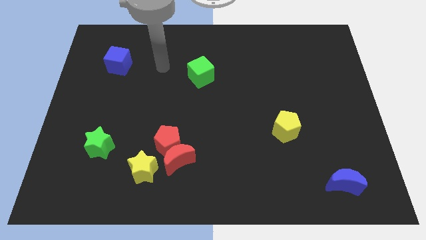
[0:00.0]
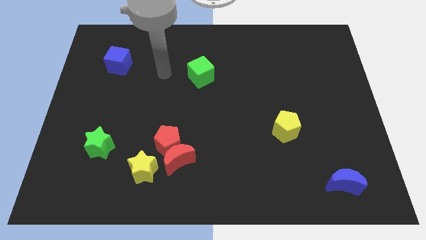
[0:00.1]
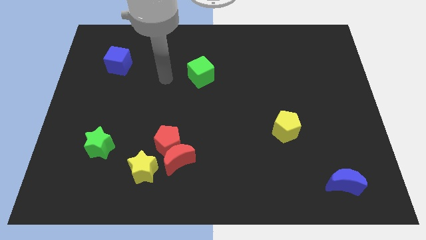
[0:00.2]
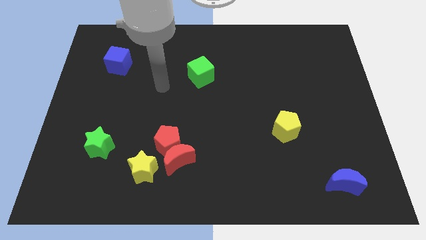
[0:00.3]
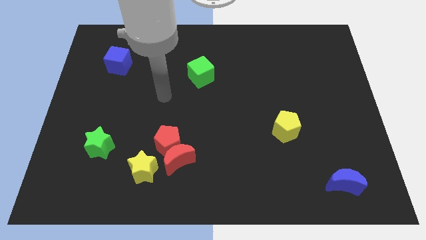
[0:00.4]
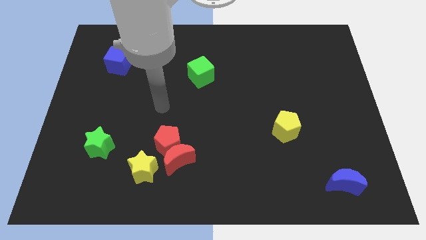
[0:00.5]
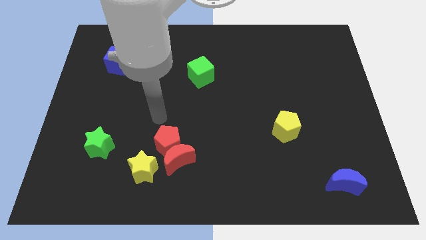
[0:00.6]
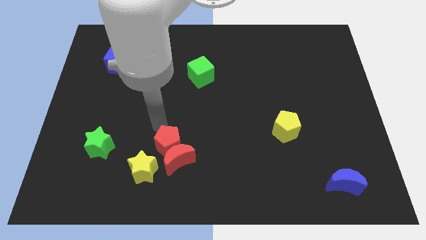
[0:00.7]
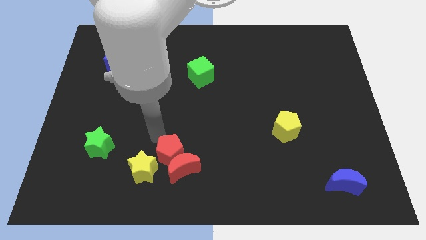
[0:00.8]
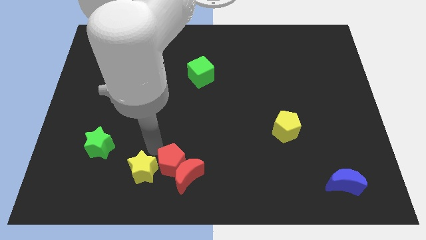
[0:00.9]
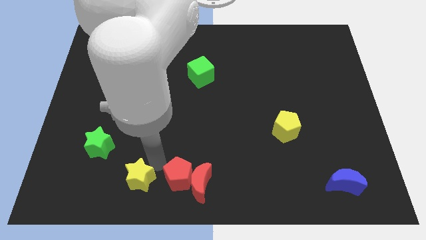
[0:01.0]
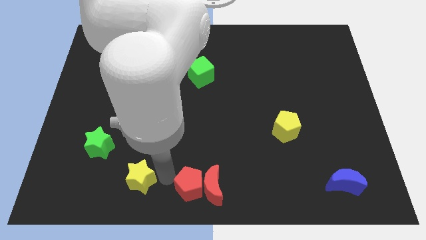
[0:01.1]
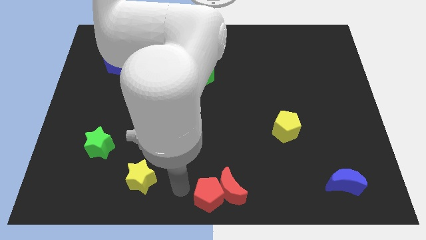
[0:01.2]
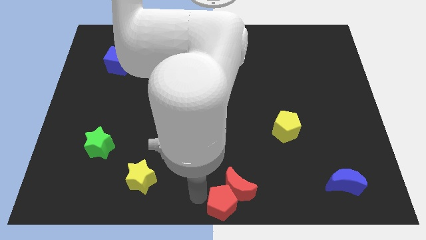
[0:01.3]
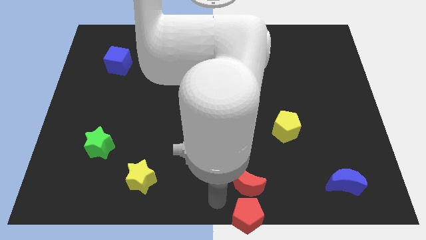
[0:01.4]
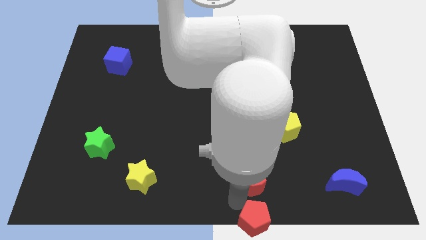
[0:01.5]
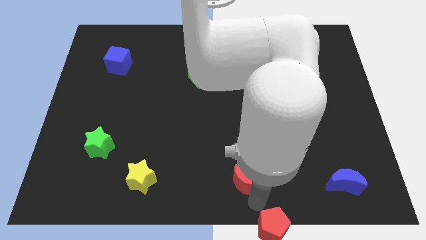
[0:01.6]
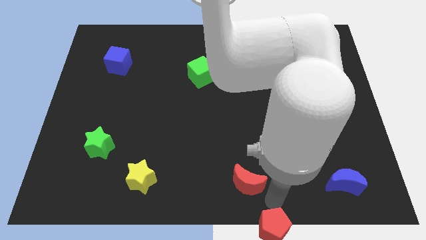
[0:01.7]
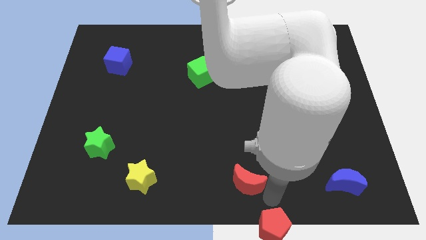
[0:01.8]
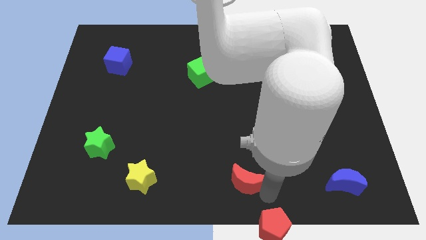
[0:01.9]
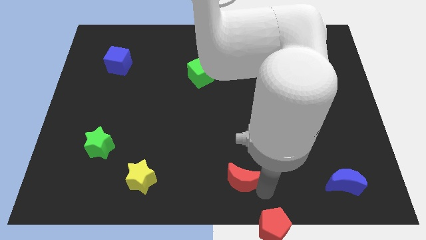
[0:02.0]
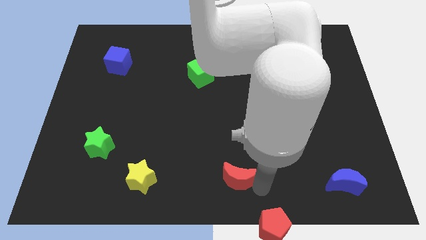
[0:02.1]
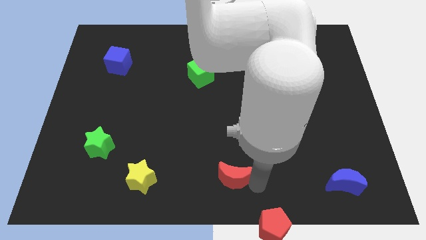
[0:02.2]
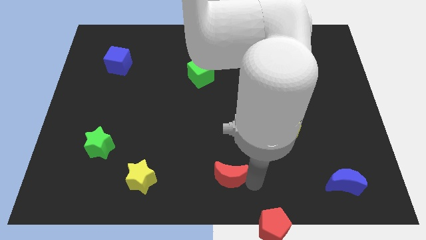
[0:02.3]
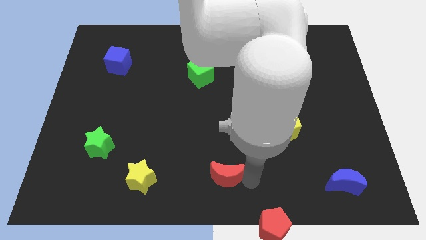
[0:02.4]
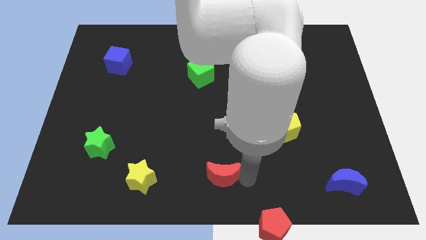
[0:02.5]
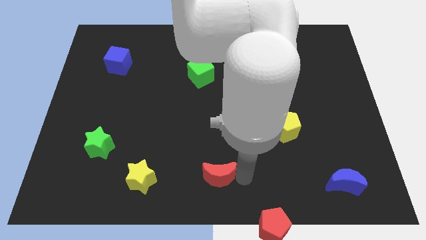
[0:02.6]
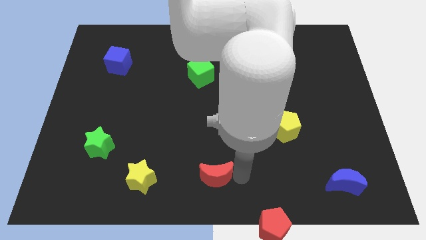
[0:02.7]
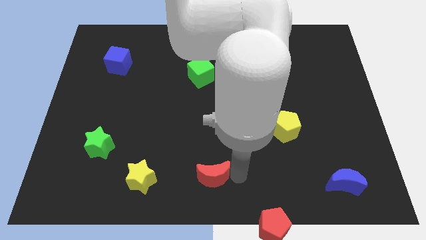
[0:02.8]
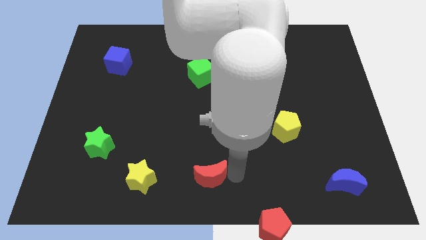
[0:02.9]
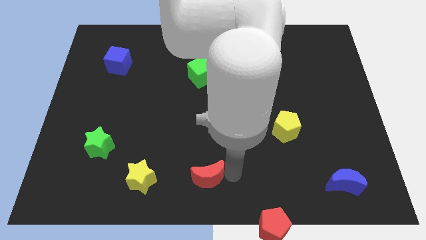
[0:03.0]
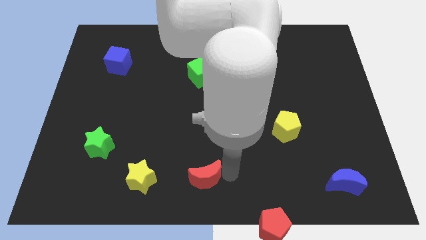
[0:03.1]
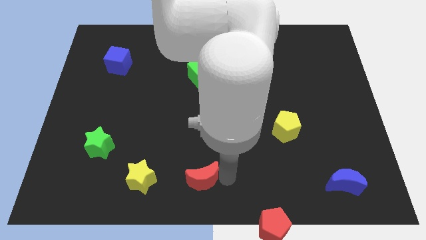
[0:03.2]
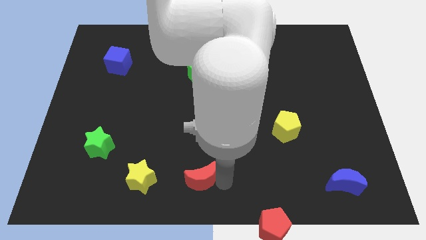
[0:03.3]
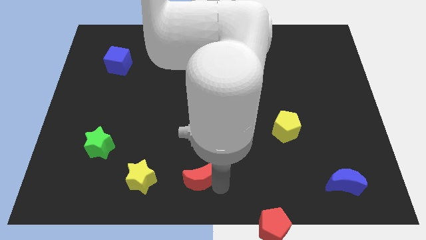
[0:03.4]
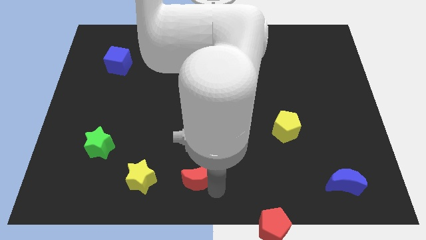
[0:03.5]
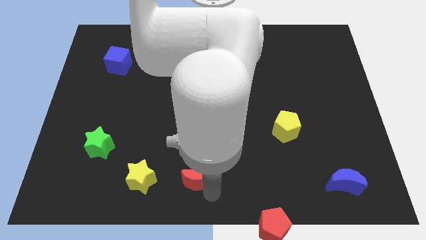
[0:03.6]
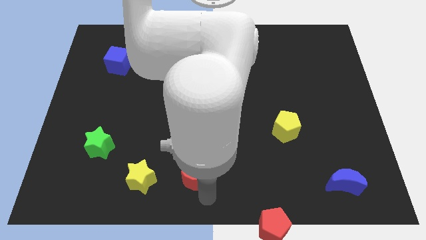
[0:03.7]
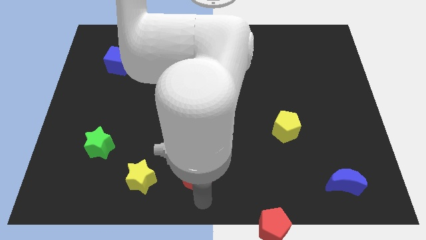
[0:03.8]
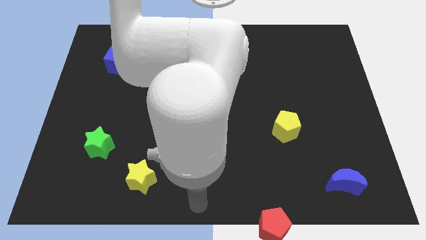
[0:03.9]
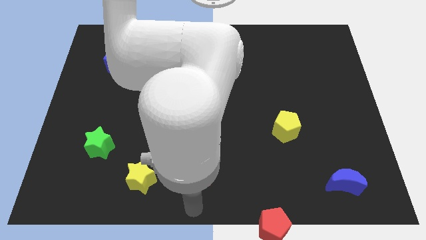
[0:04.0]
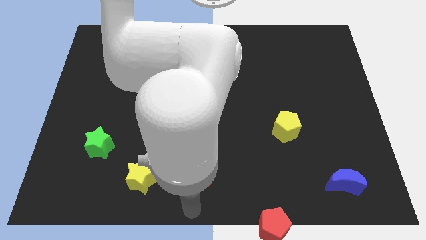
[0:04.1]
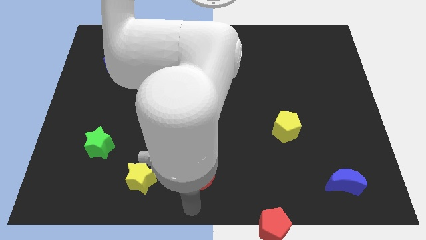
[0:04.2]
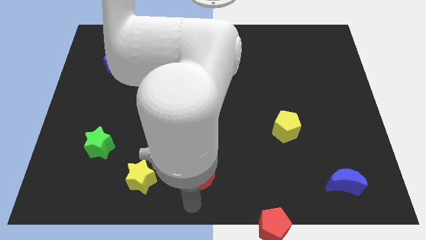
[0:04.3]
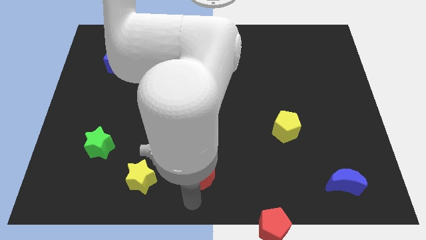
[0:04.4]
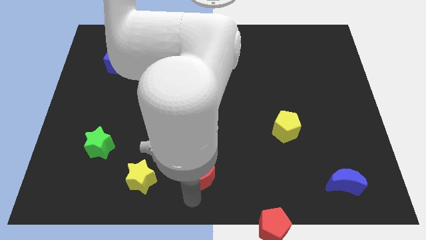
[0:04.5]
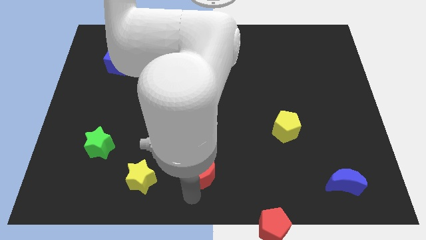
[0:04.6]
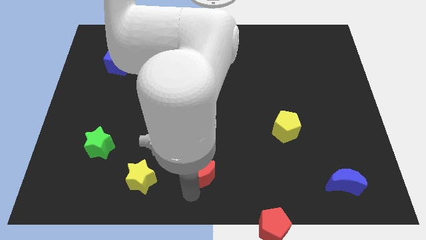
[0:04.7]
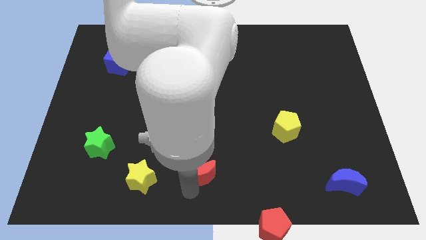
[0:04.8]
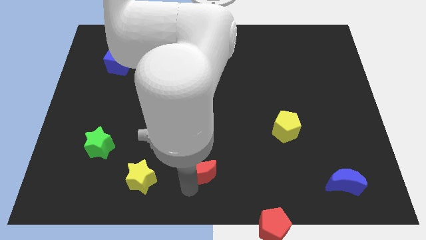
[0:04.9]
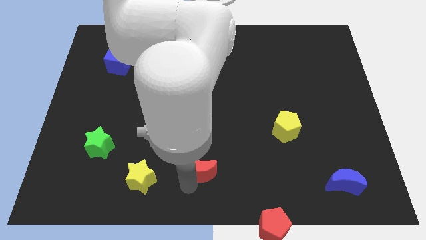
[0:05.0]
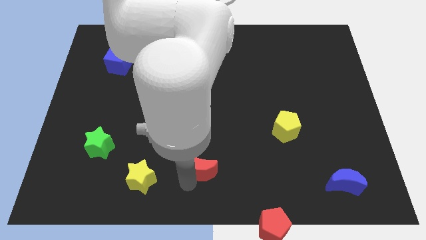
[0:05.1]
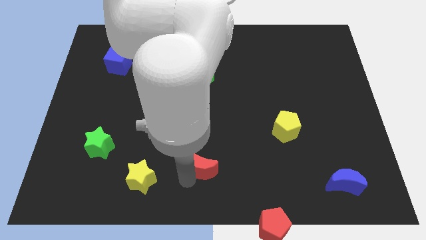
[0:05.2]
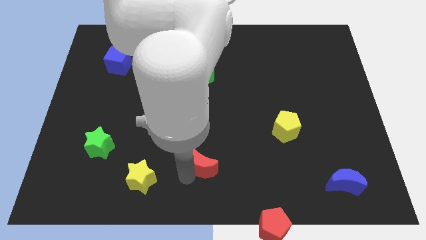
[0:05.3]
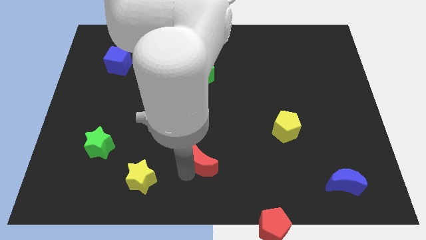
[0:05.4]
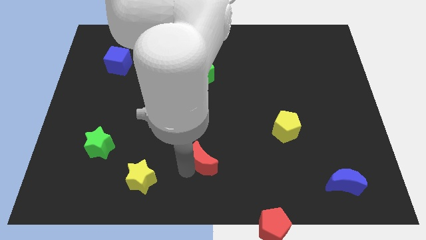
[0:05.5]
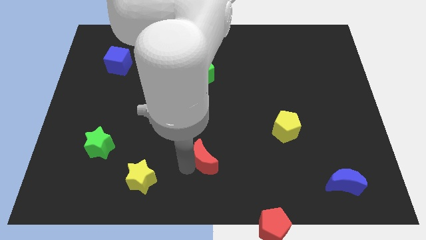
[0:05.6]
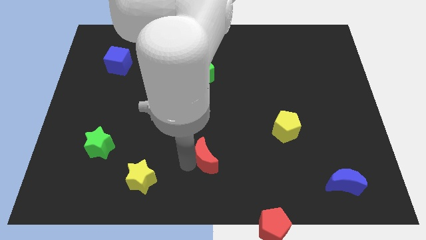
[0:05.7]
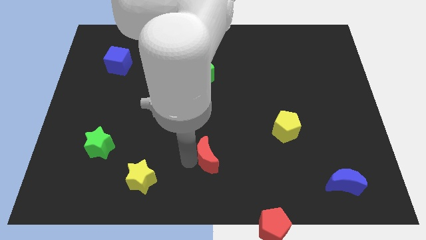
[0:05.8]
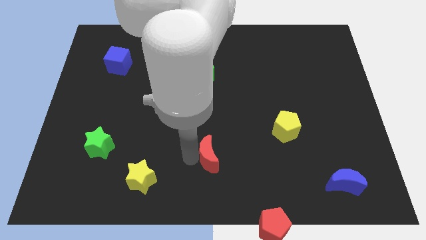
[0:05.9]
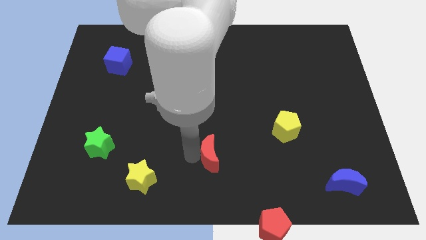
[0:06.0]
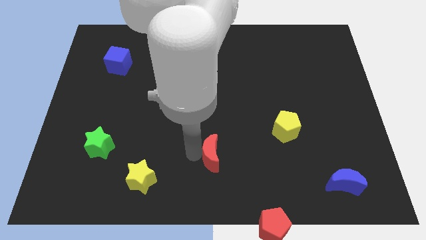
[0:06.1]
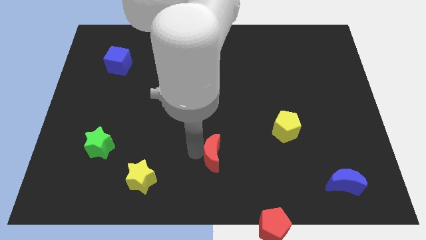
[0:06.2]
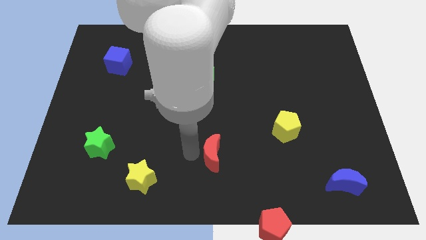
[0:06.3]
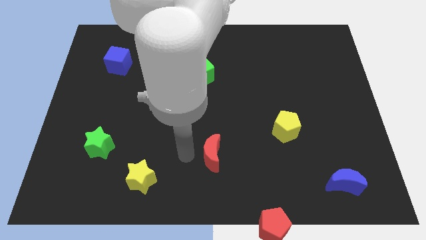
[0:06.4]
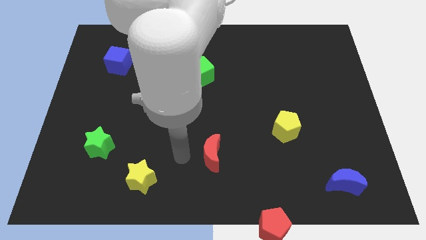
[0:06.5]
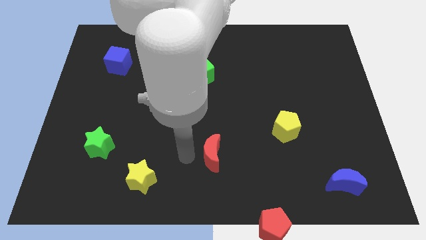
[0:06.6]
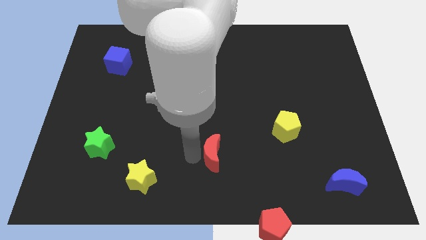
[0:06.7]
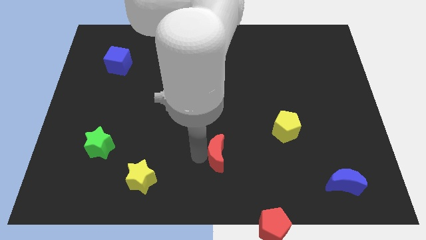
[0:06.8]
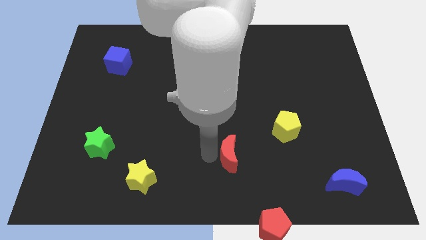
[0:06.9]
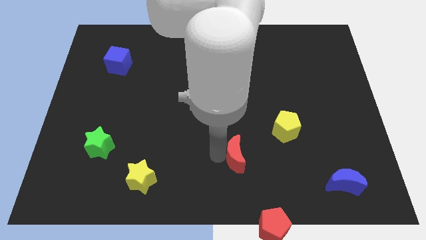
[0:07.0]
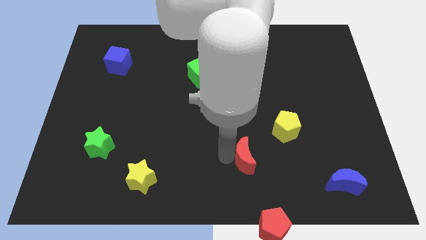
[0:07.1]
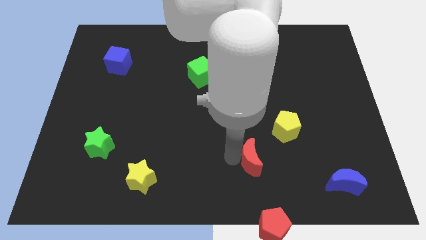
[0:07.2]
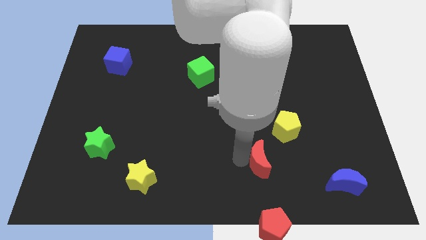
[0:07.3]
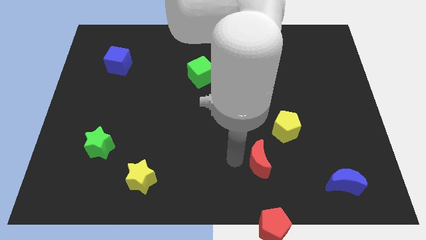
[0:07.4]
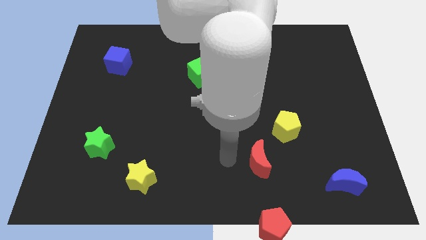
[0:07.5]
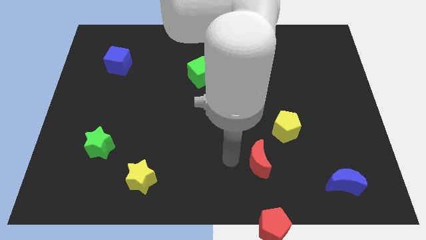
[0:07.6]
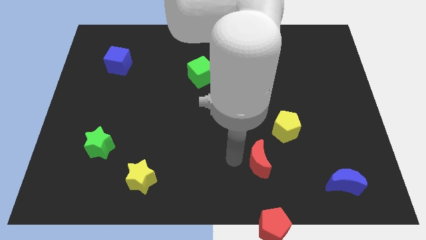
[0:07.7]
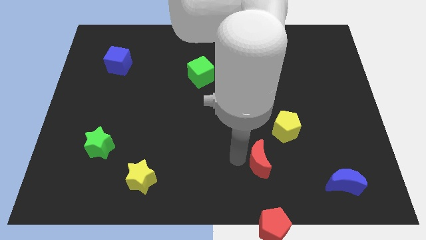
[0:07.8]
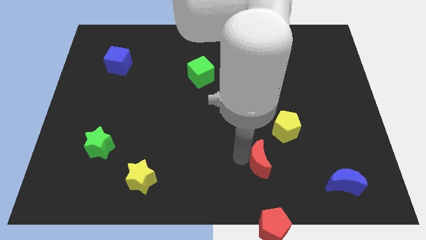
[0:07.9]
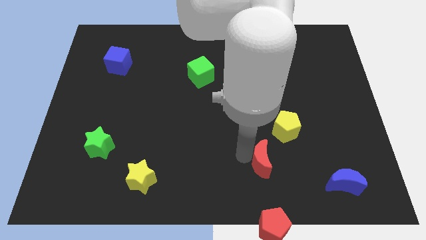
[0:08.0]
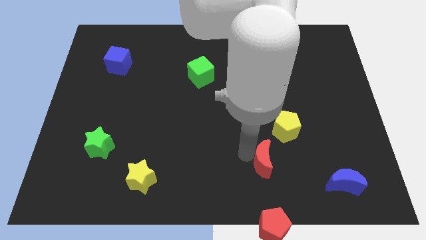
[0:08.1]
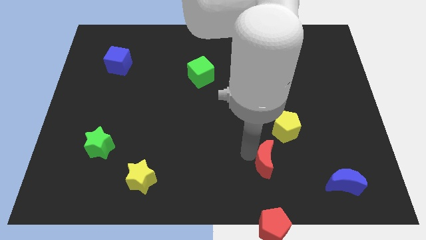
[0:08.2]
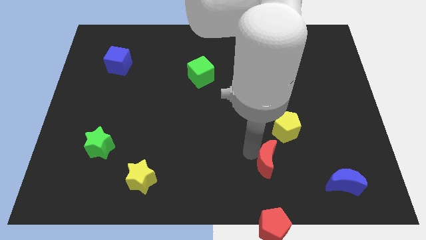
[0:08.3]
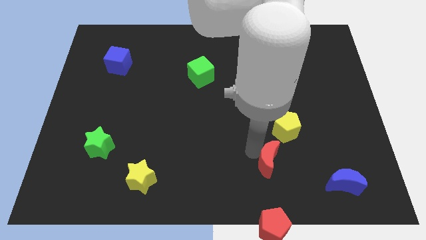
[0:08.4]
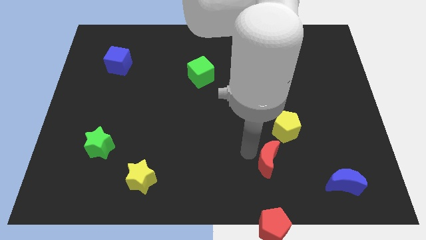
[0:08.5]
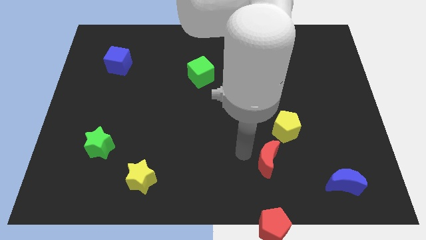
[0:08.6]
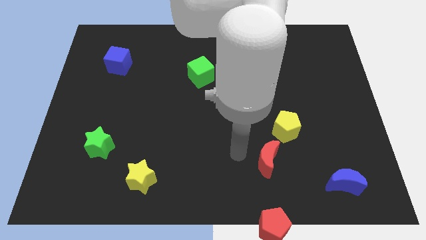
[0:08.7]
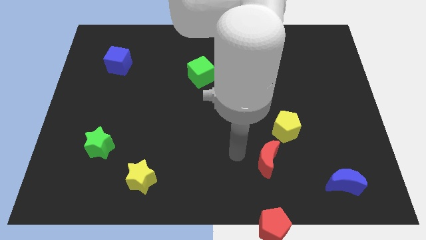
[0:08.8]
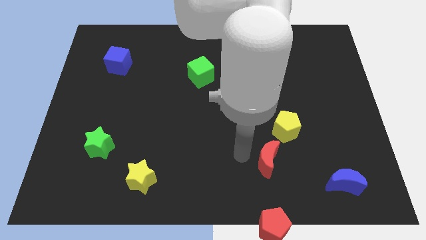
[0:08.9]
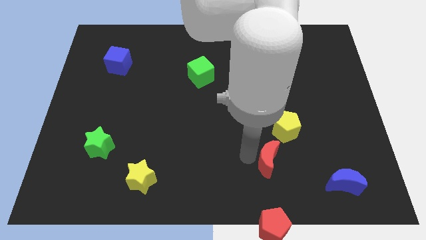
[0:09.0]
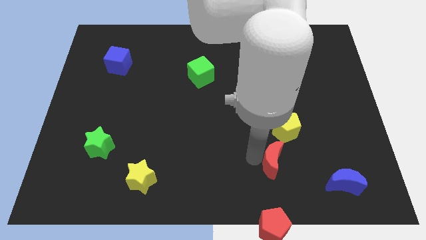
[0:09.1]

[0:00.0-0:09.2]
move the red moon right
